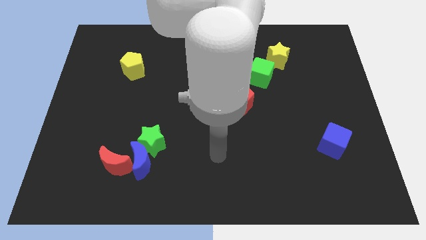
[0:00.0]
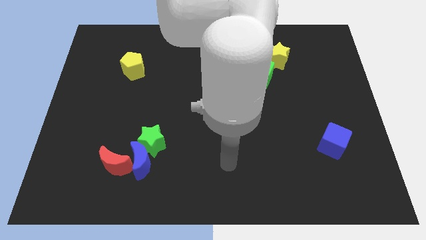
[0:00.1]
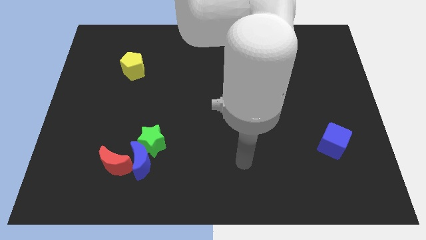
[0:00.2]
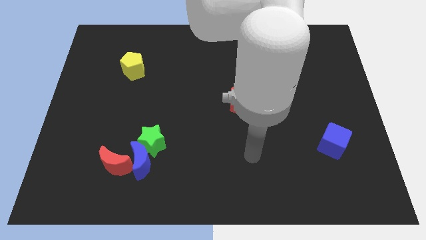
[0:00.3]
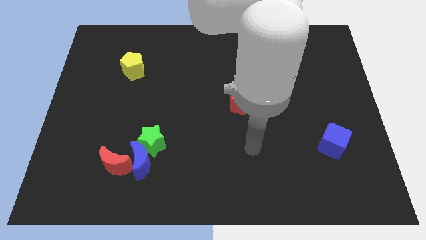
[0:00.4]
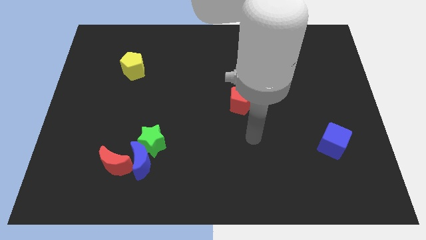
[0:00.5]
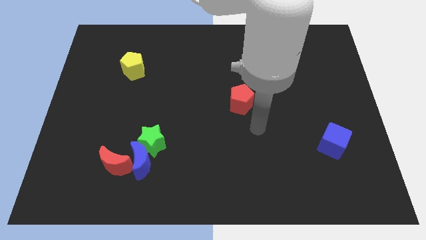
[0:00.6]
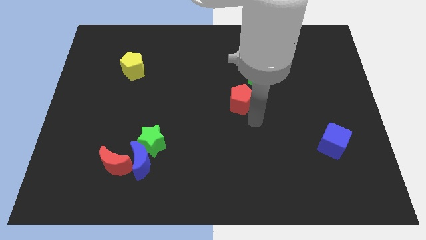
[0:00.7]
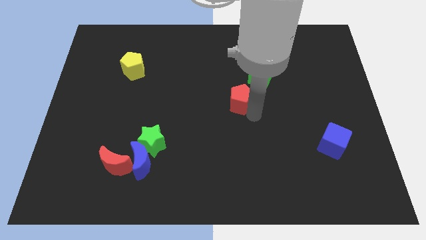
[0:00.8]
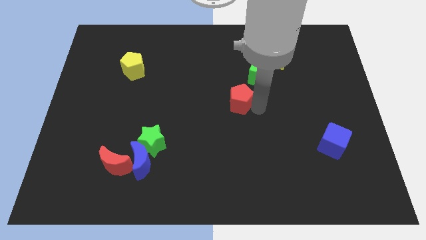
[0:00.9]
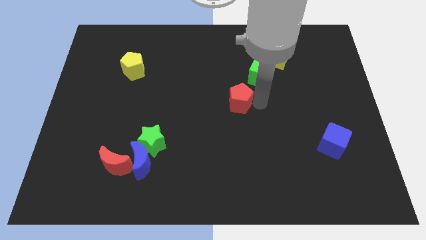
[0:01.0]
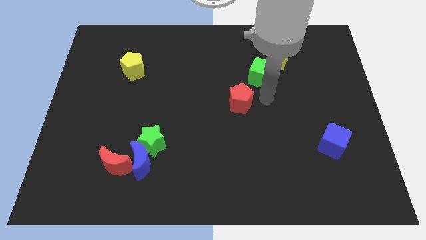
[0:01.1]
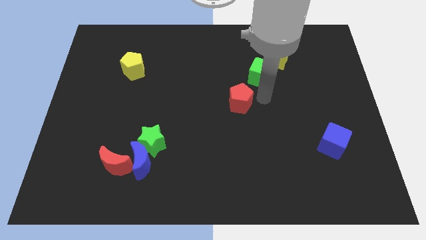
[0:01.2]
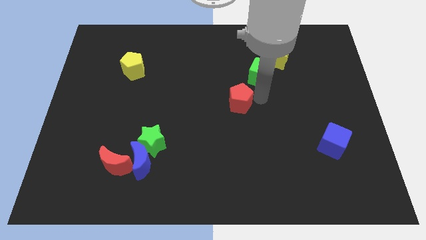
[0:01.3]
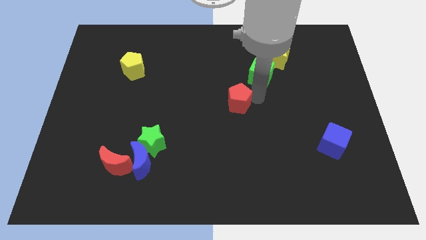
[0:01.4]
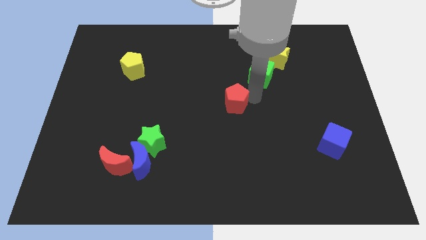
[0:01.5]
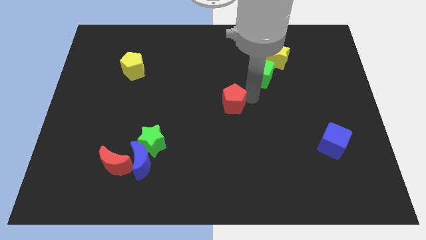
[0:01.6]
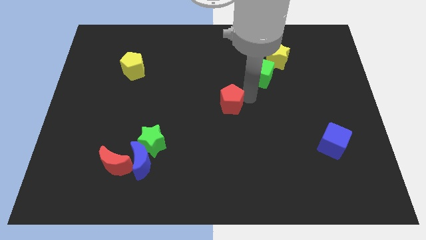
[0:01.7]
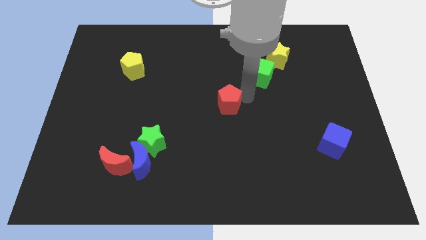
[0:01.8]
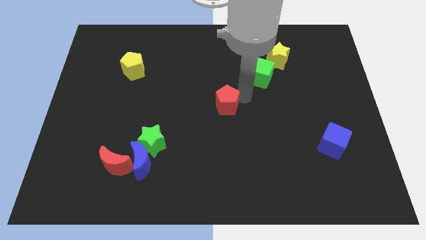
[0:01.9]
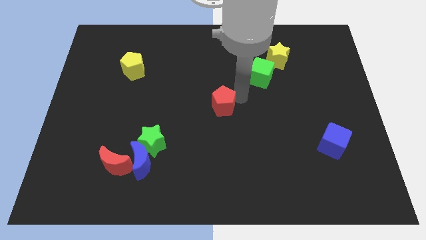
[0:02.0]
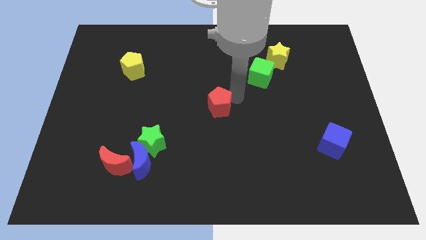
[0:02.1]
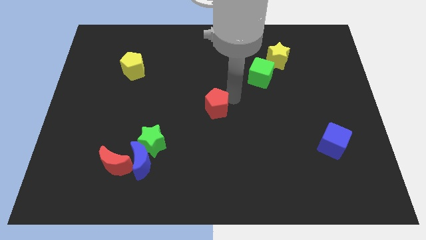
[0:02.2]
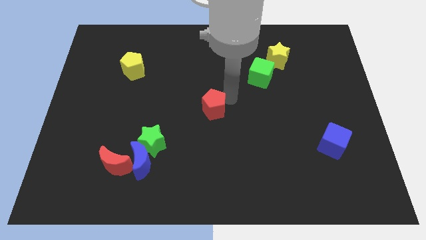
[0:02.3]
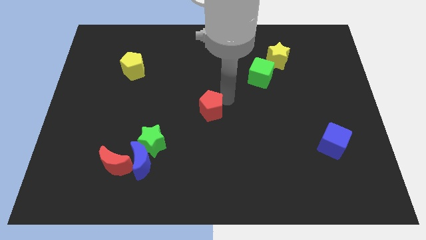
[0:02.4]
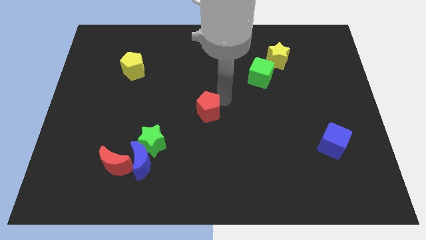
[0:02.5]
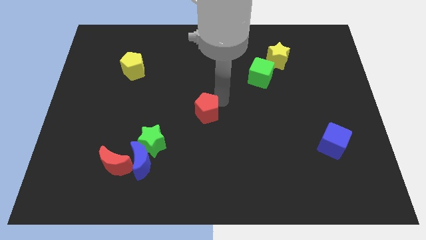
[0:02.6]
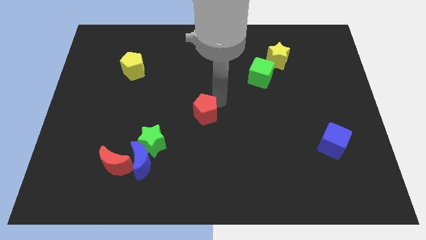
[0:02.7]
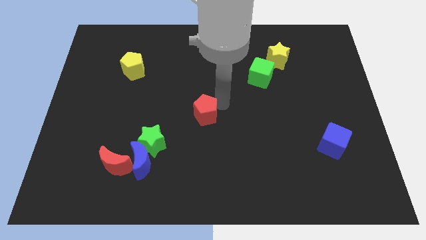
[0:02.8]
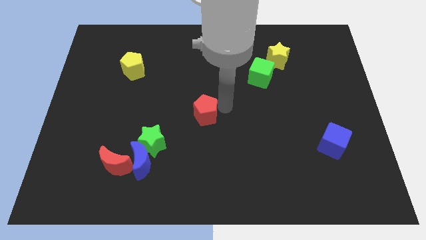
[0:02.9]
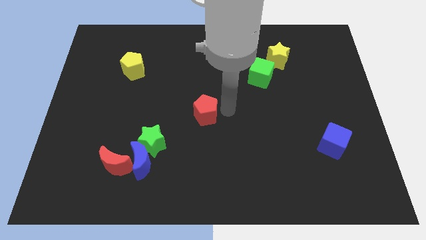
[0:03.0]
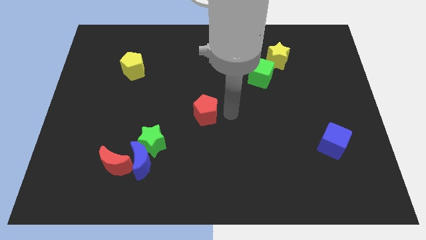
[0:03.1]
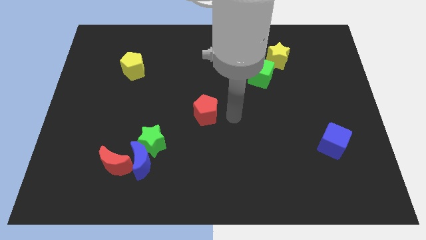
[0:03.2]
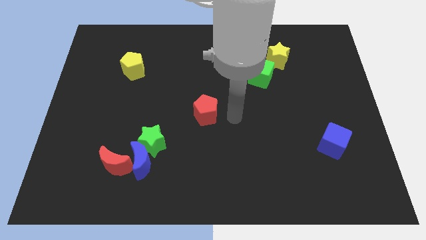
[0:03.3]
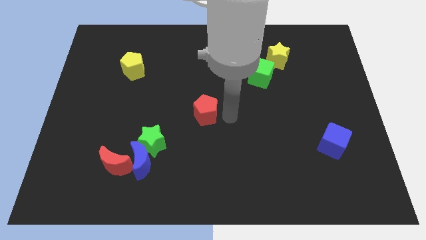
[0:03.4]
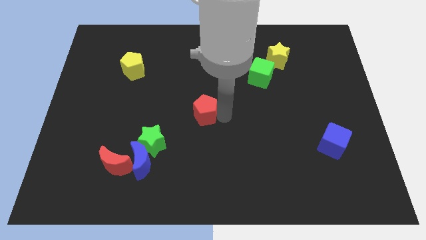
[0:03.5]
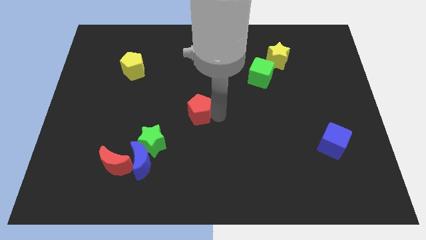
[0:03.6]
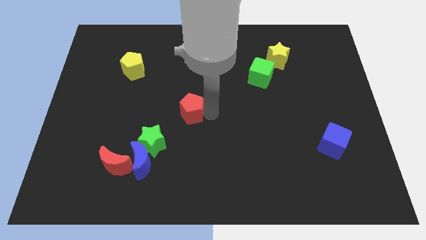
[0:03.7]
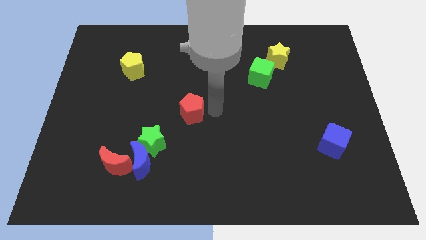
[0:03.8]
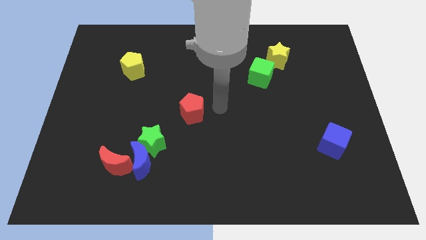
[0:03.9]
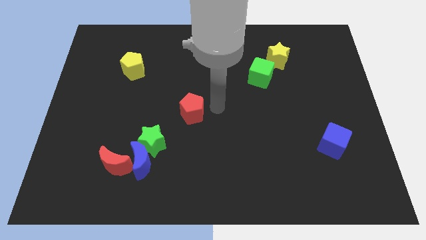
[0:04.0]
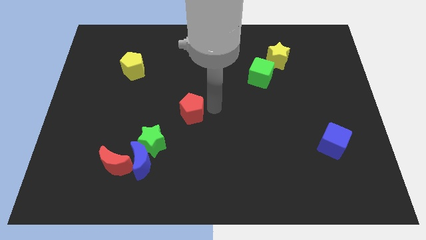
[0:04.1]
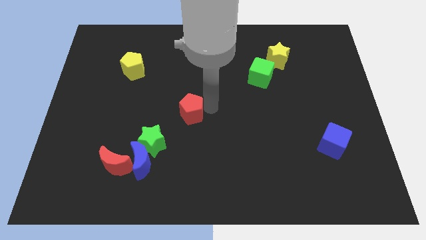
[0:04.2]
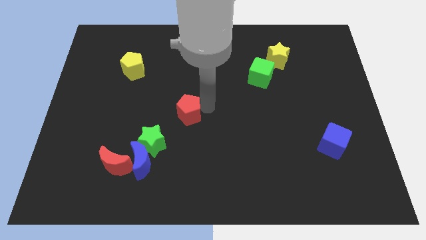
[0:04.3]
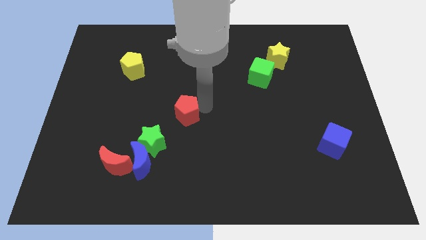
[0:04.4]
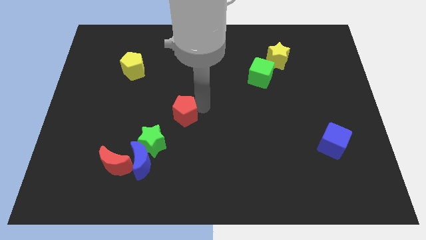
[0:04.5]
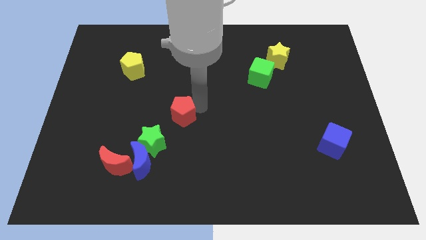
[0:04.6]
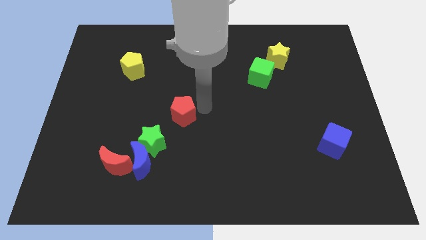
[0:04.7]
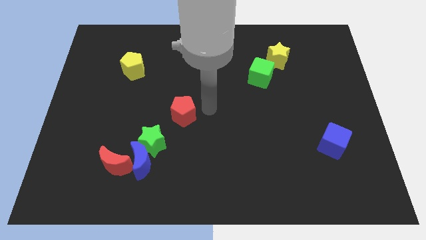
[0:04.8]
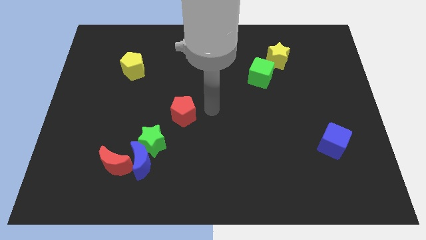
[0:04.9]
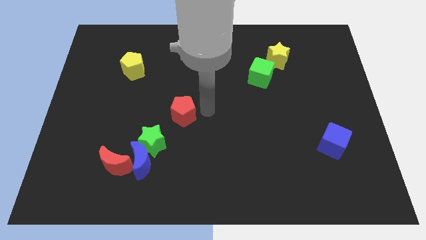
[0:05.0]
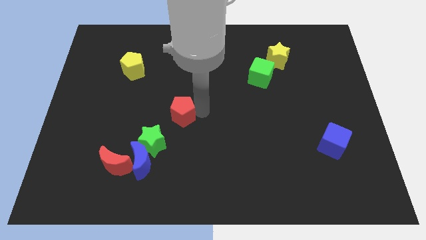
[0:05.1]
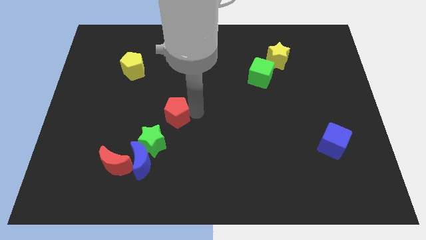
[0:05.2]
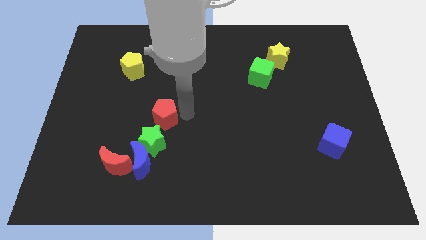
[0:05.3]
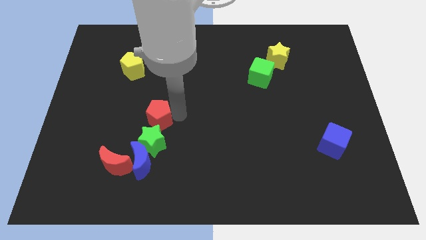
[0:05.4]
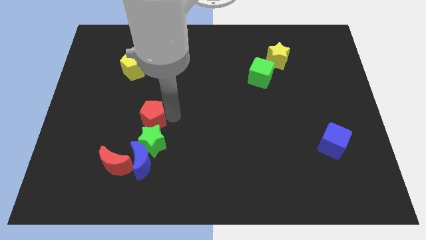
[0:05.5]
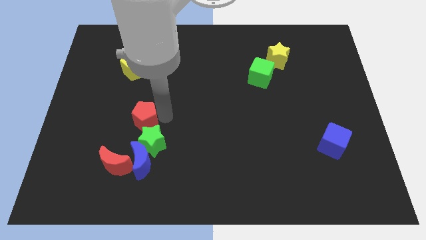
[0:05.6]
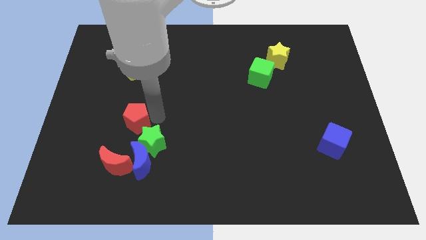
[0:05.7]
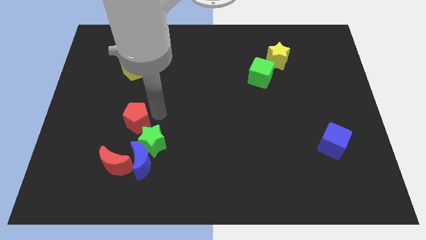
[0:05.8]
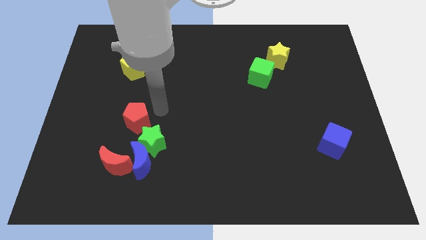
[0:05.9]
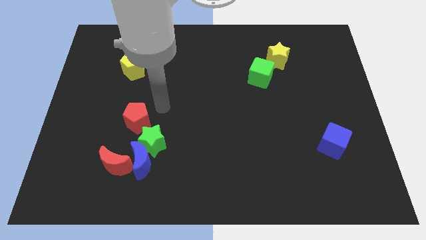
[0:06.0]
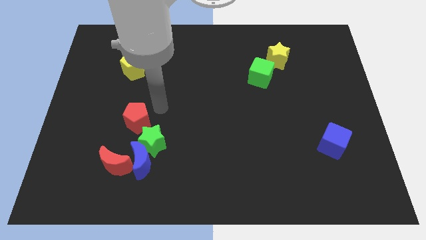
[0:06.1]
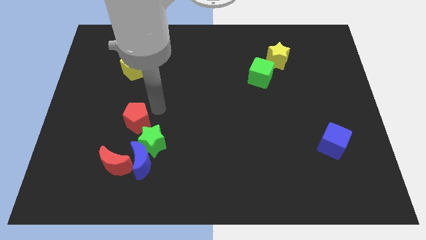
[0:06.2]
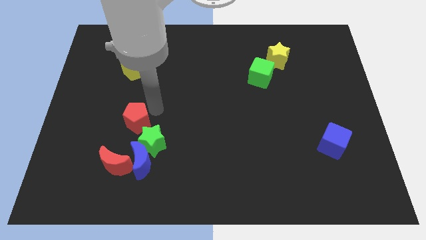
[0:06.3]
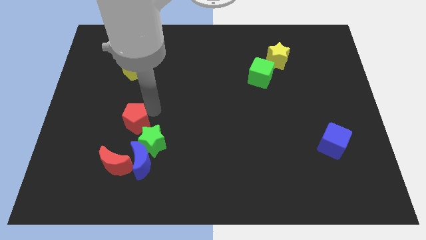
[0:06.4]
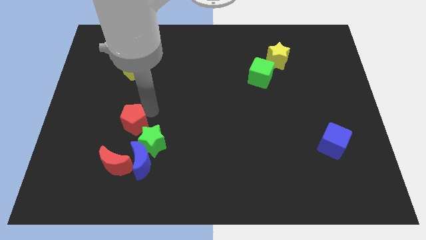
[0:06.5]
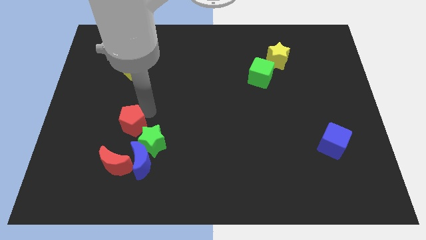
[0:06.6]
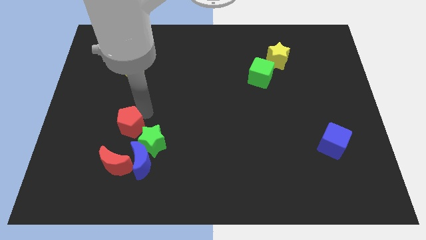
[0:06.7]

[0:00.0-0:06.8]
put the red pentagon to the left of the green star

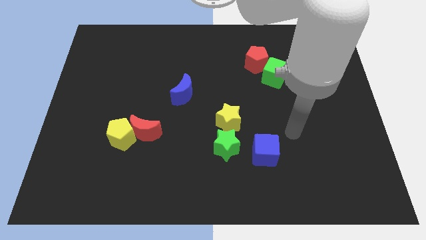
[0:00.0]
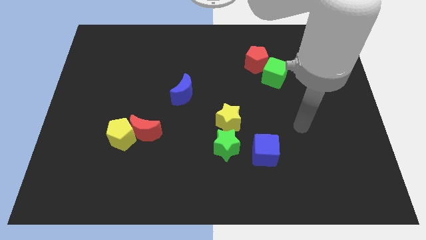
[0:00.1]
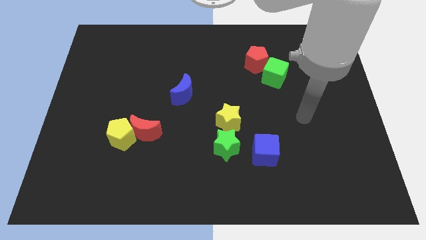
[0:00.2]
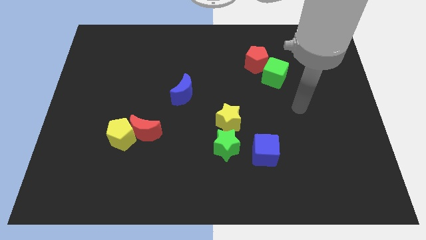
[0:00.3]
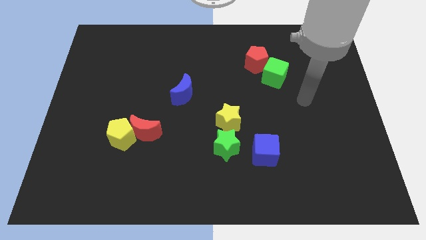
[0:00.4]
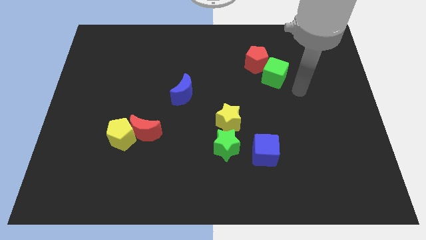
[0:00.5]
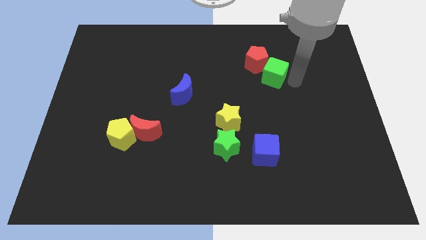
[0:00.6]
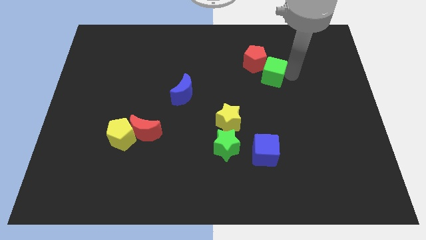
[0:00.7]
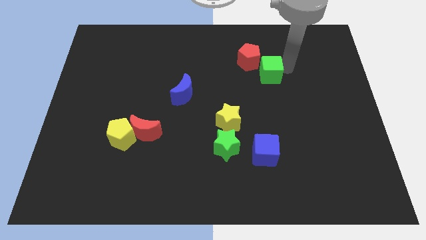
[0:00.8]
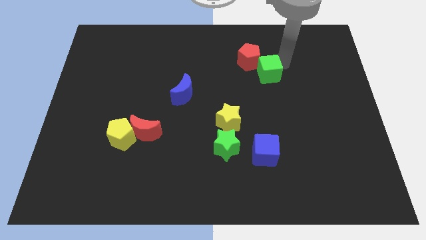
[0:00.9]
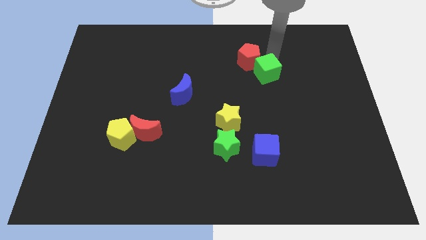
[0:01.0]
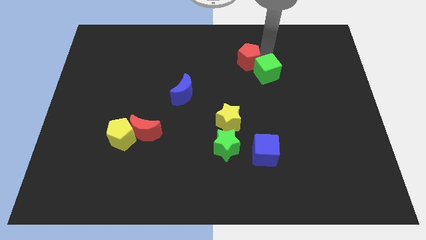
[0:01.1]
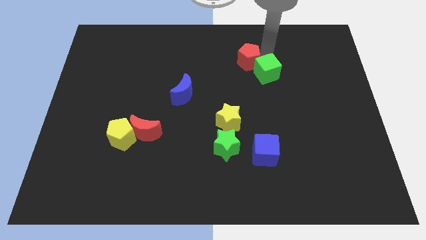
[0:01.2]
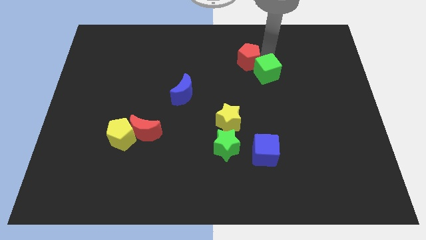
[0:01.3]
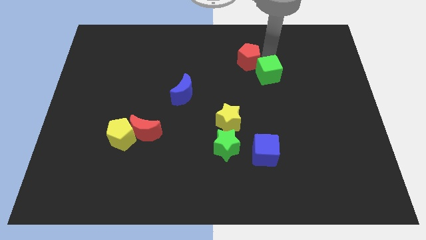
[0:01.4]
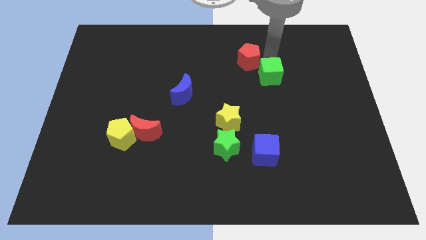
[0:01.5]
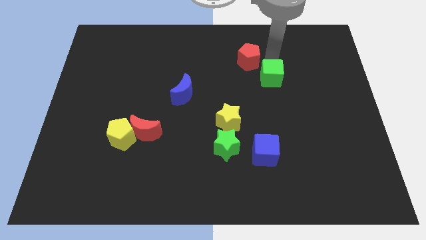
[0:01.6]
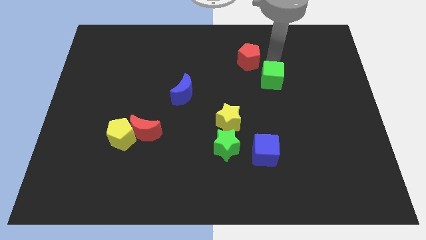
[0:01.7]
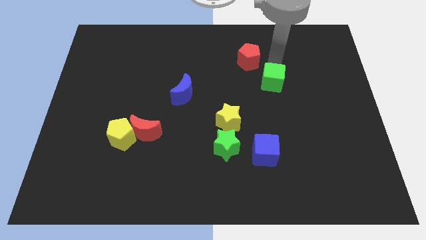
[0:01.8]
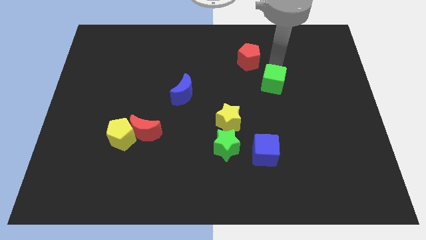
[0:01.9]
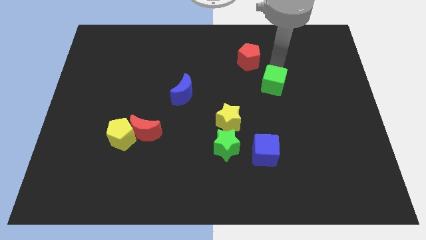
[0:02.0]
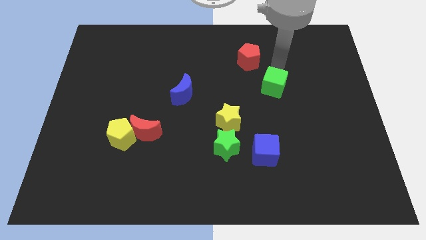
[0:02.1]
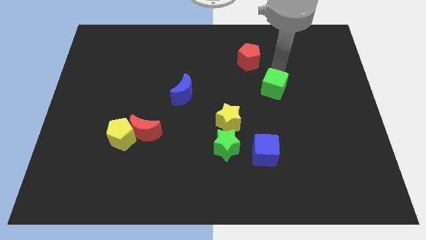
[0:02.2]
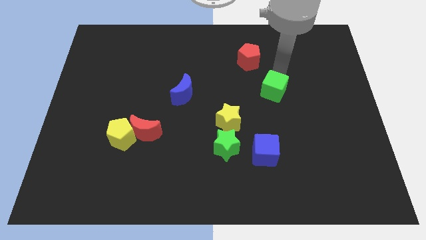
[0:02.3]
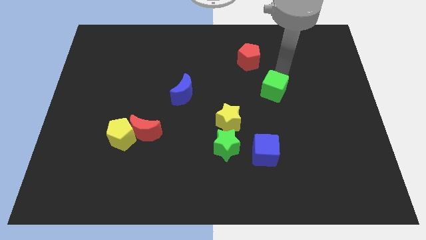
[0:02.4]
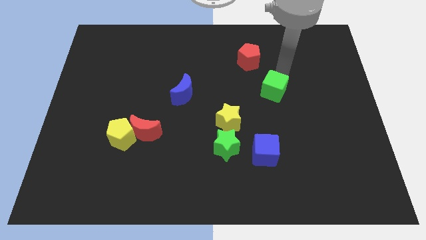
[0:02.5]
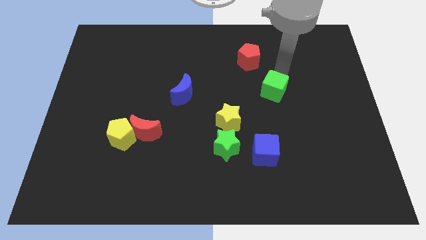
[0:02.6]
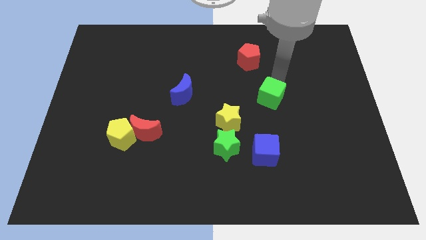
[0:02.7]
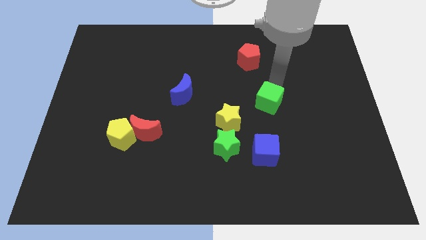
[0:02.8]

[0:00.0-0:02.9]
move the green cube to the top side of the blue cube
